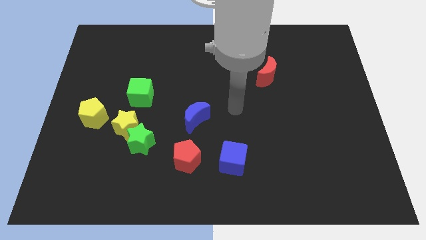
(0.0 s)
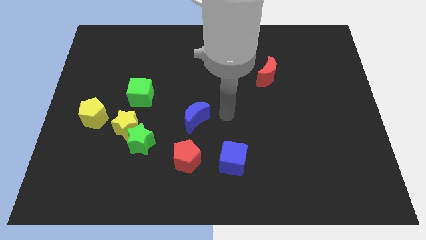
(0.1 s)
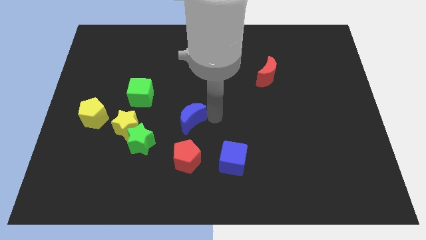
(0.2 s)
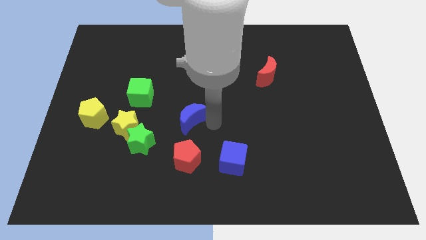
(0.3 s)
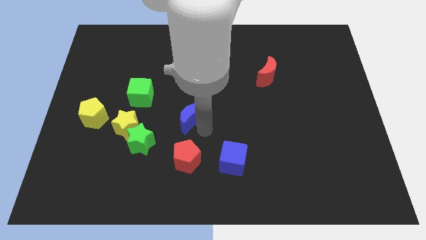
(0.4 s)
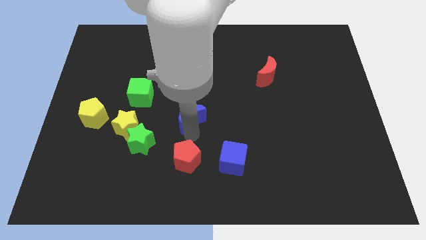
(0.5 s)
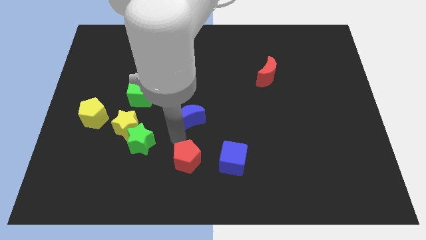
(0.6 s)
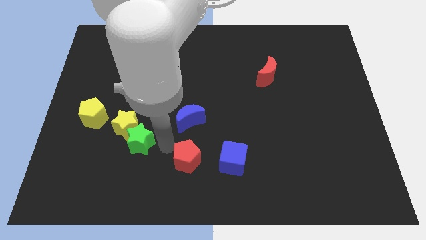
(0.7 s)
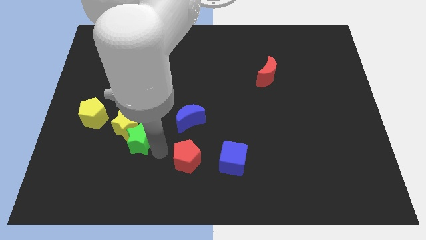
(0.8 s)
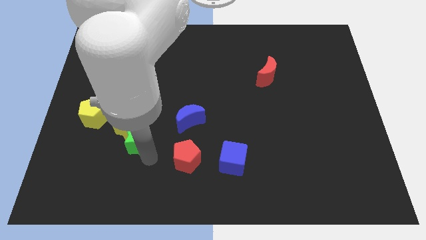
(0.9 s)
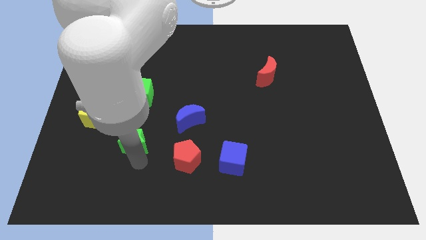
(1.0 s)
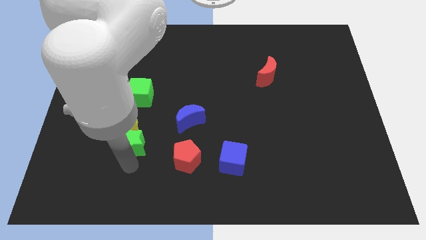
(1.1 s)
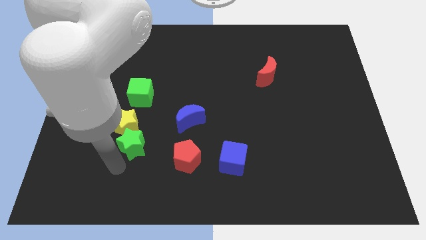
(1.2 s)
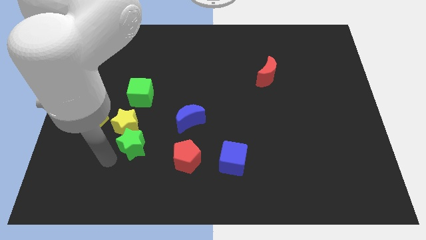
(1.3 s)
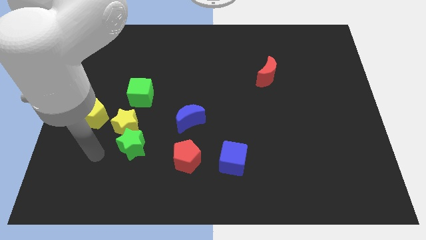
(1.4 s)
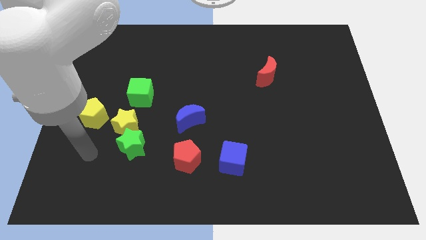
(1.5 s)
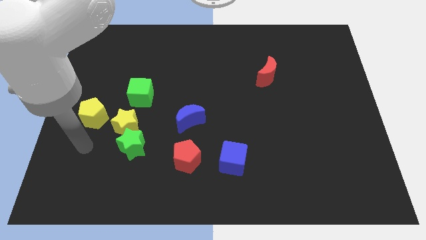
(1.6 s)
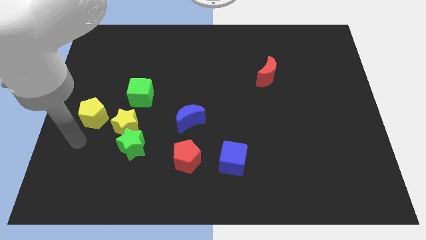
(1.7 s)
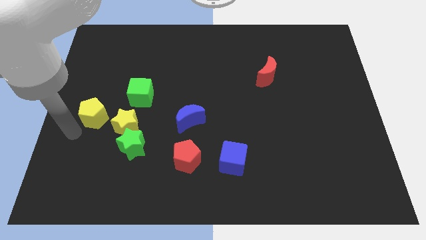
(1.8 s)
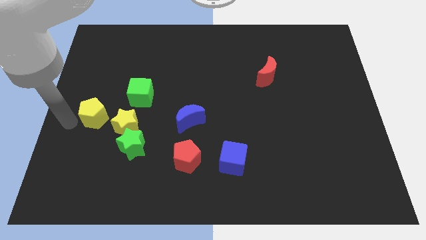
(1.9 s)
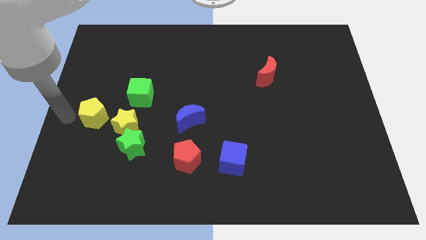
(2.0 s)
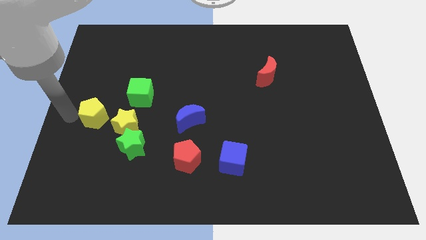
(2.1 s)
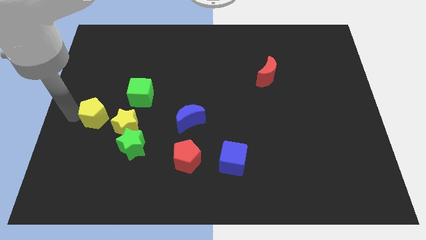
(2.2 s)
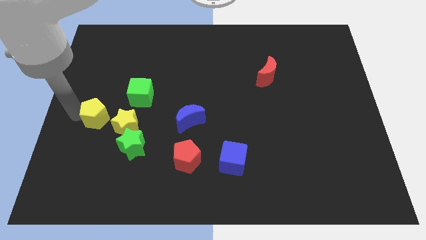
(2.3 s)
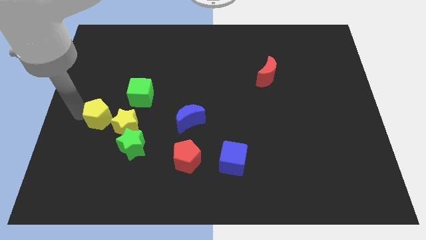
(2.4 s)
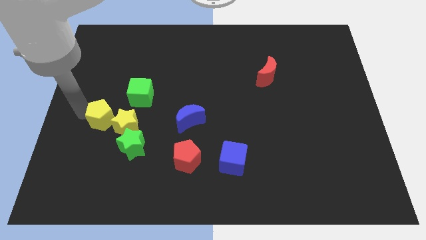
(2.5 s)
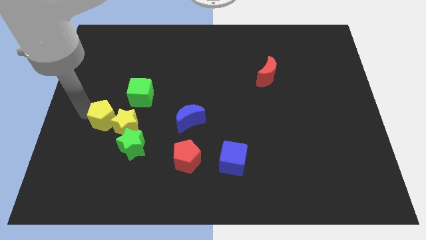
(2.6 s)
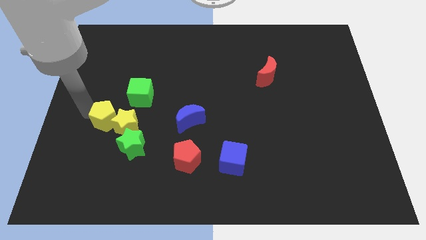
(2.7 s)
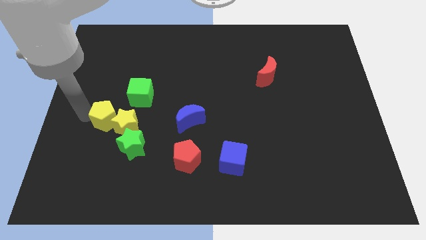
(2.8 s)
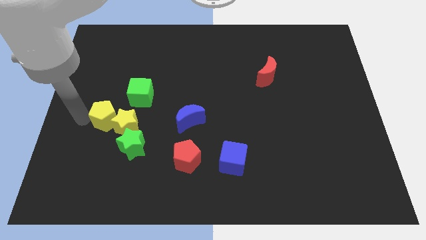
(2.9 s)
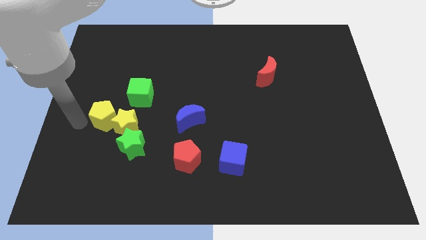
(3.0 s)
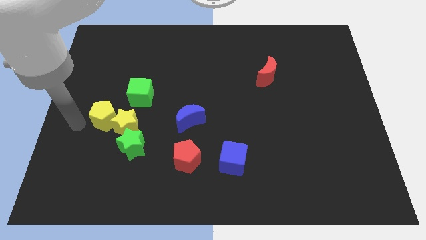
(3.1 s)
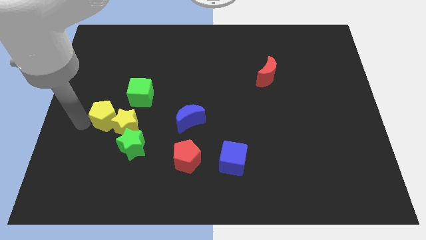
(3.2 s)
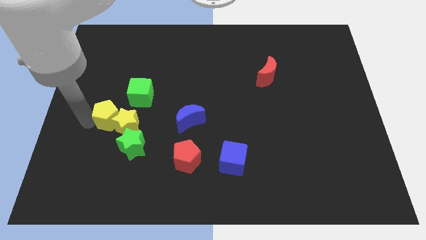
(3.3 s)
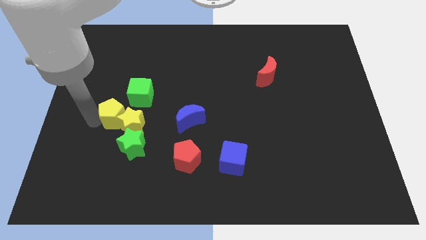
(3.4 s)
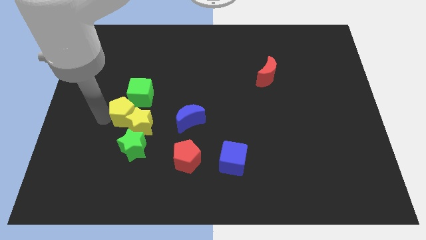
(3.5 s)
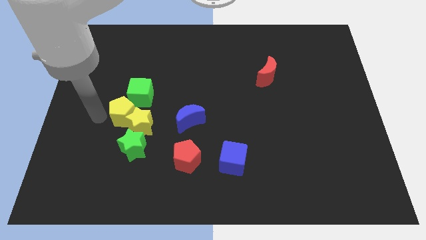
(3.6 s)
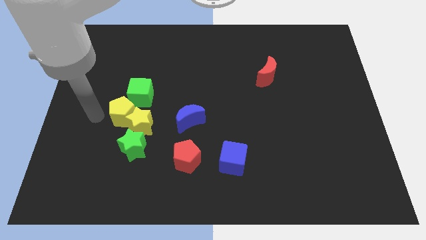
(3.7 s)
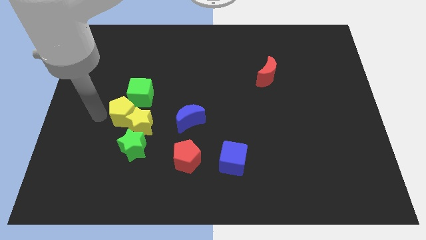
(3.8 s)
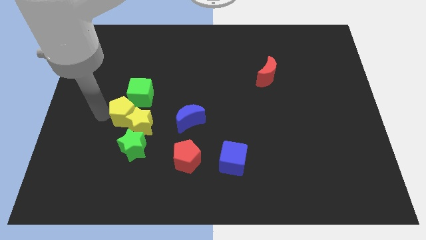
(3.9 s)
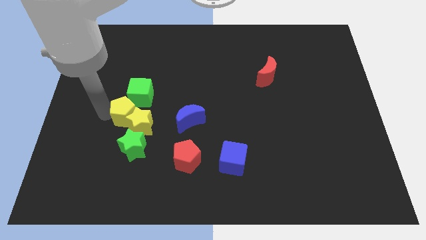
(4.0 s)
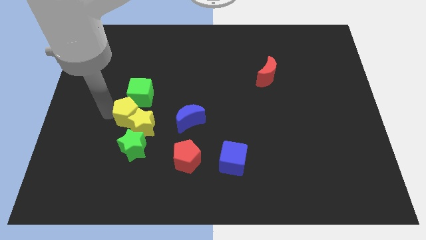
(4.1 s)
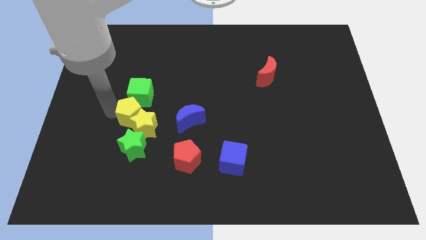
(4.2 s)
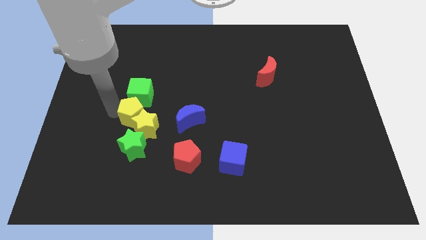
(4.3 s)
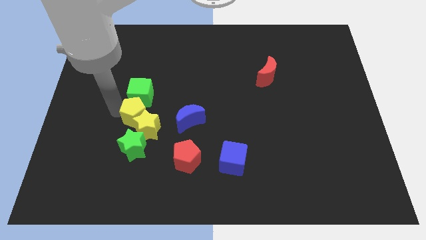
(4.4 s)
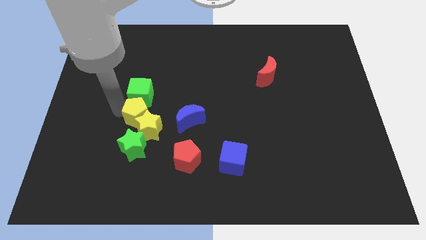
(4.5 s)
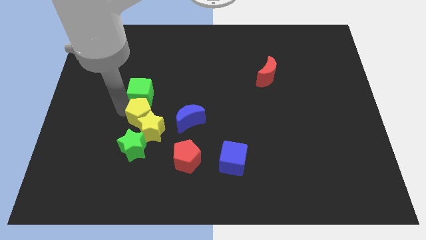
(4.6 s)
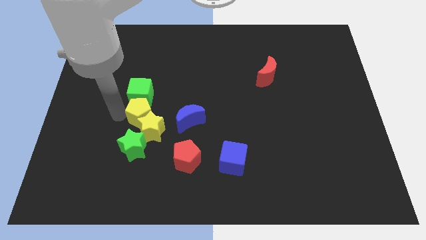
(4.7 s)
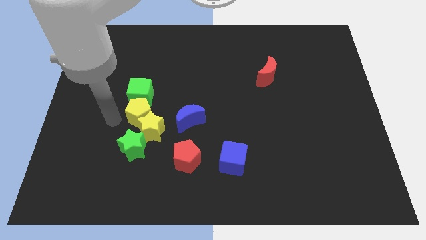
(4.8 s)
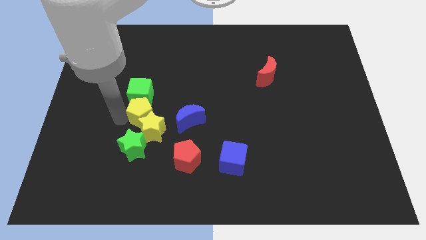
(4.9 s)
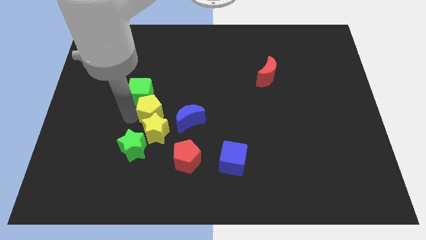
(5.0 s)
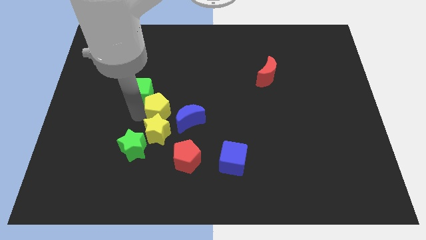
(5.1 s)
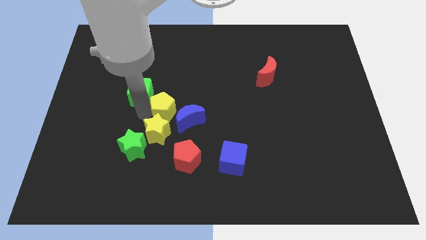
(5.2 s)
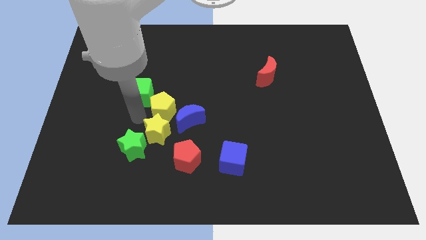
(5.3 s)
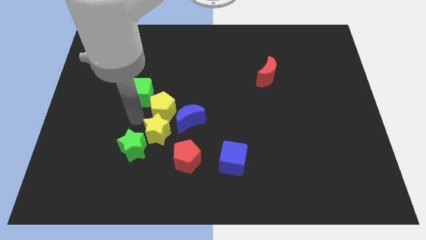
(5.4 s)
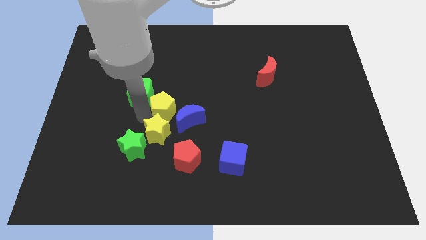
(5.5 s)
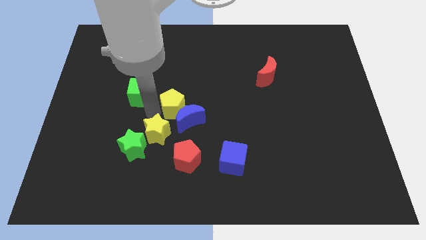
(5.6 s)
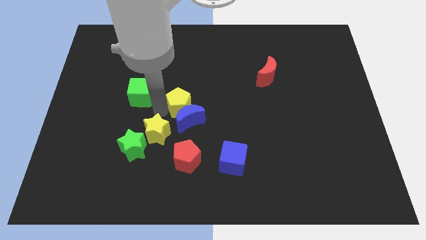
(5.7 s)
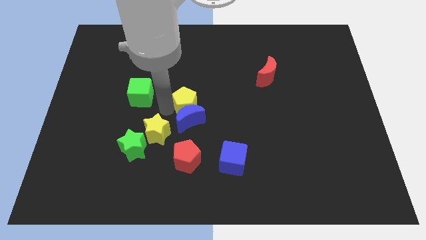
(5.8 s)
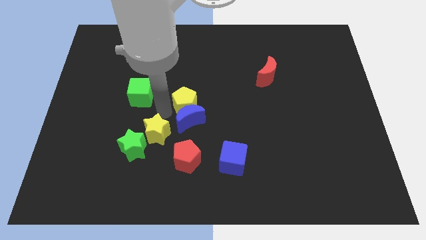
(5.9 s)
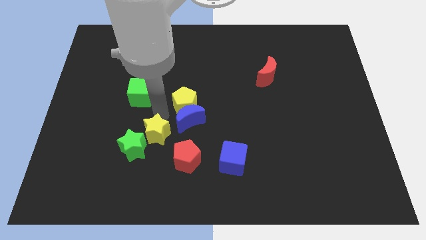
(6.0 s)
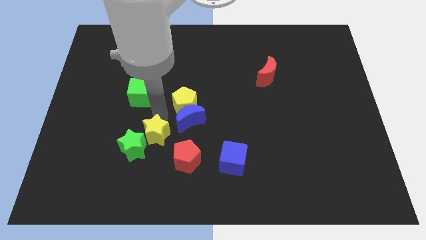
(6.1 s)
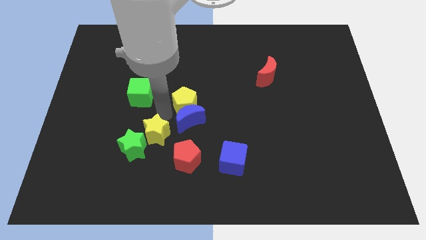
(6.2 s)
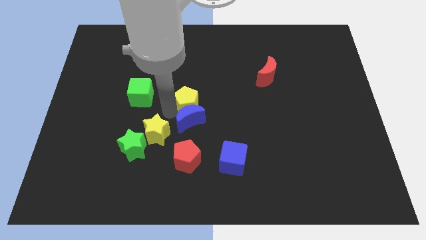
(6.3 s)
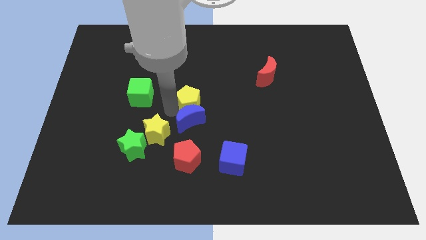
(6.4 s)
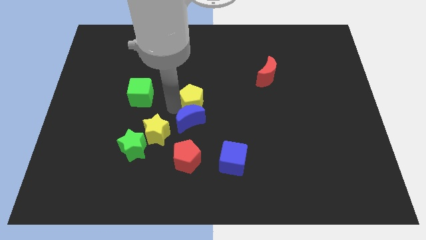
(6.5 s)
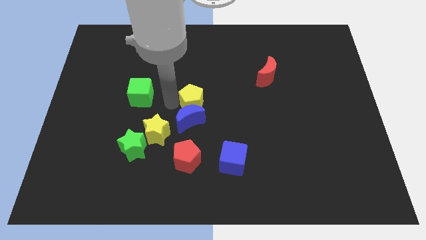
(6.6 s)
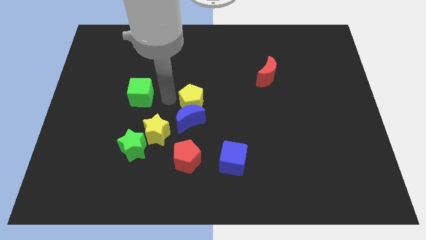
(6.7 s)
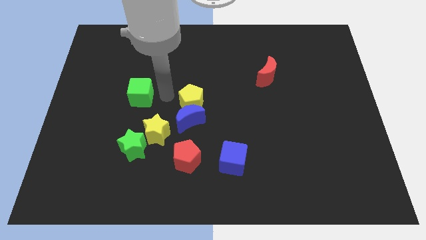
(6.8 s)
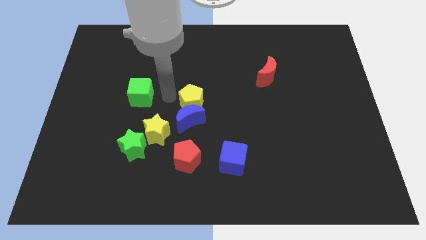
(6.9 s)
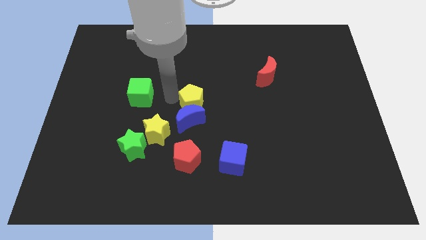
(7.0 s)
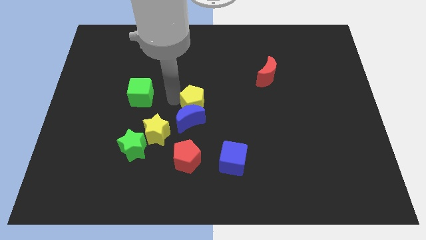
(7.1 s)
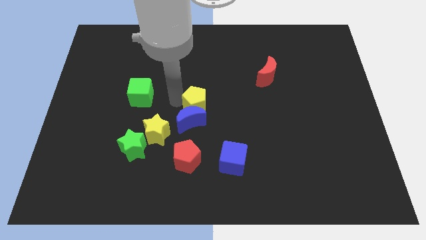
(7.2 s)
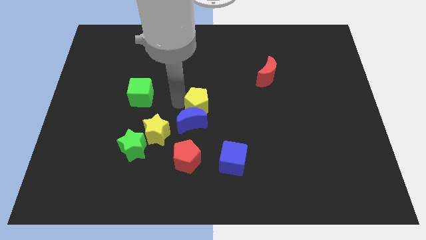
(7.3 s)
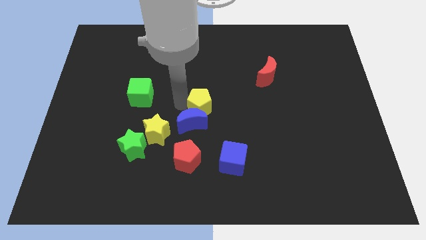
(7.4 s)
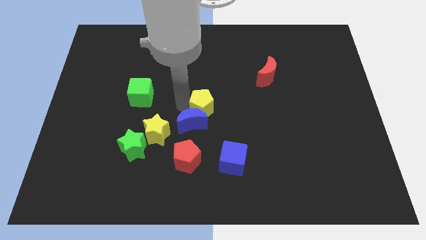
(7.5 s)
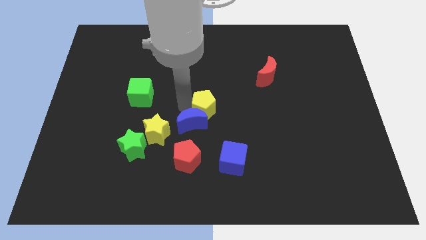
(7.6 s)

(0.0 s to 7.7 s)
put the yellow pentagon right of the blue moon
